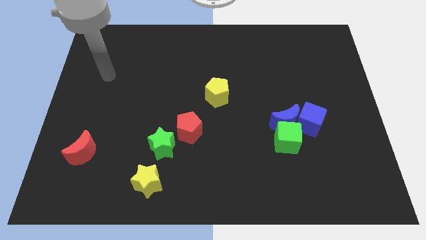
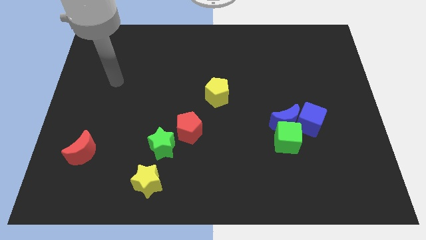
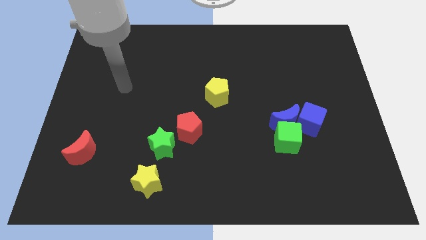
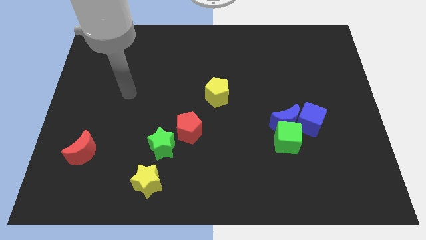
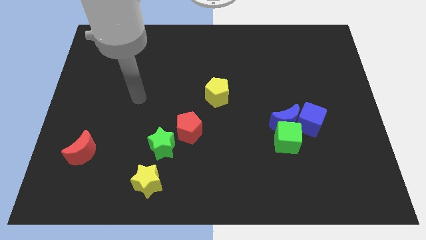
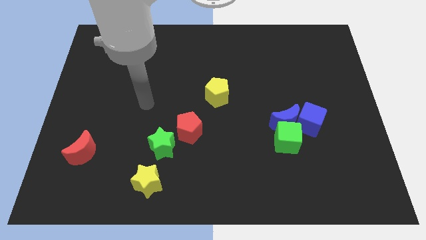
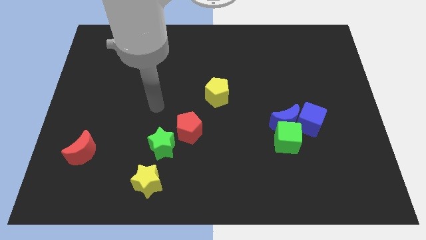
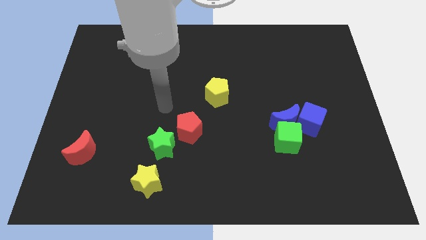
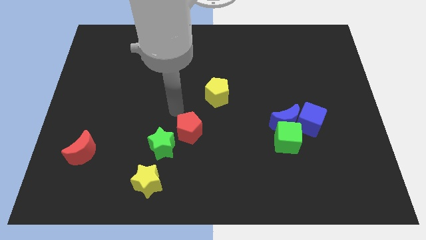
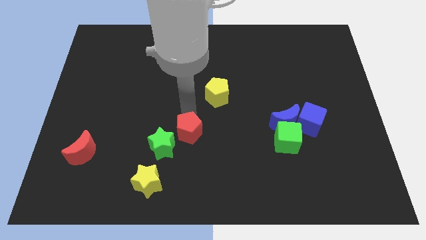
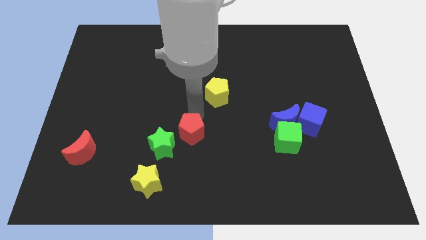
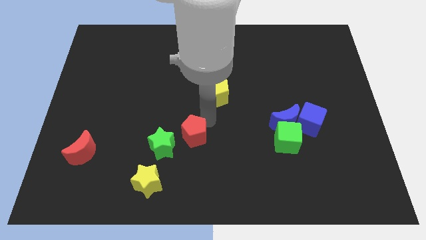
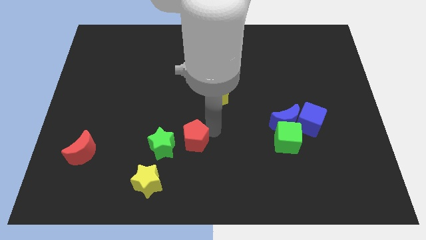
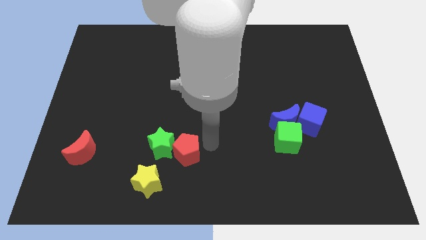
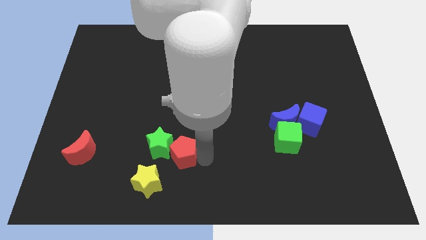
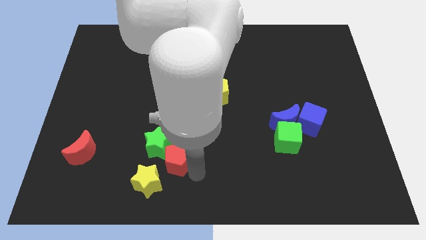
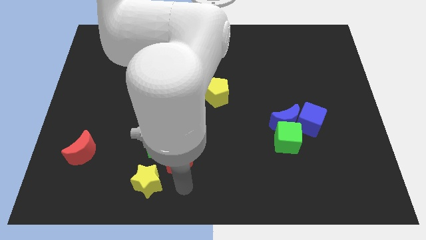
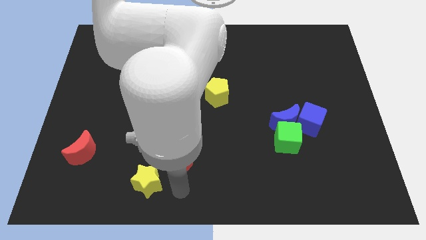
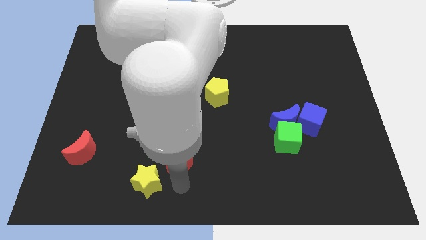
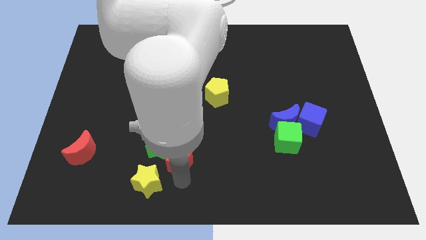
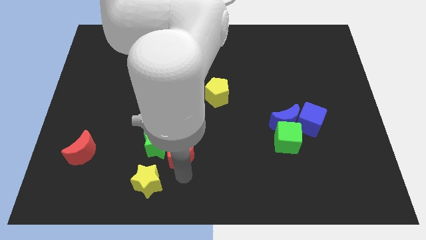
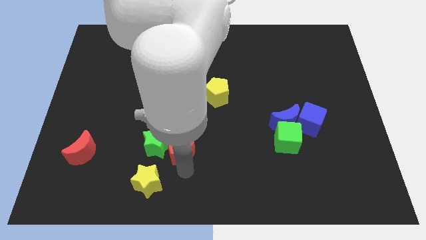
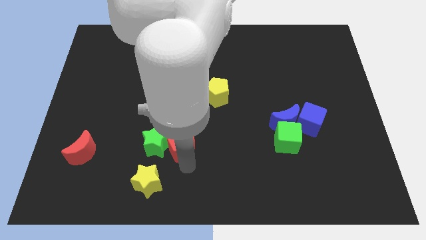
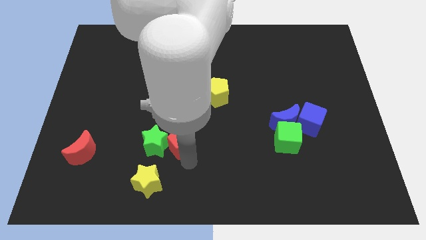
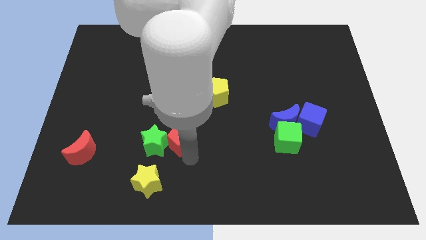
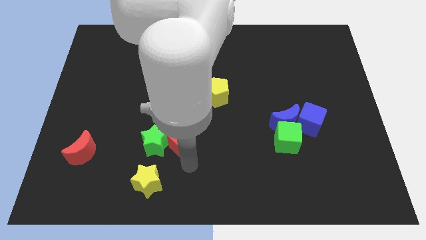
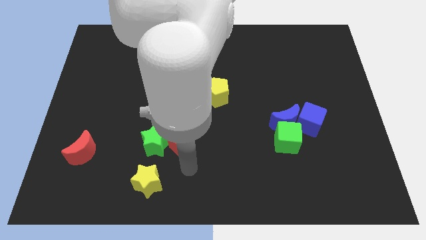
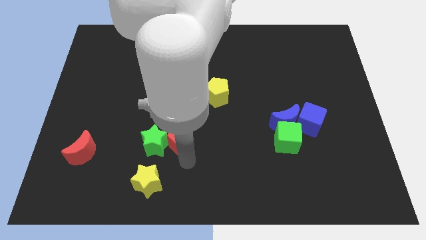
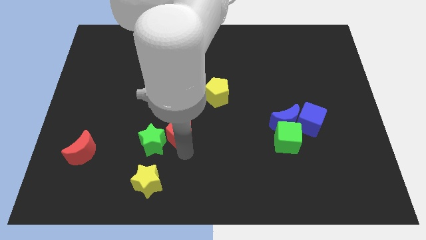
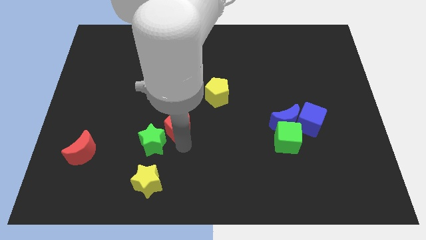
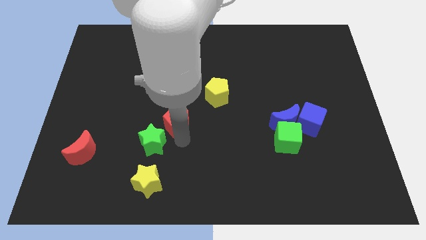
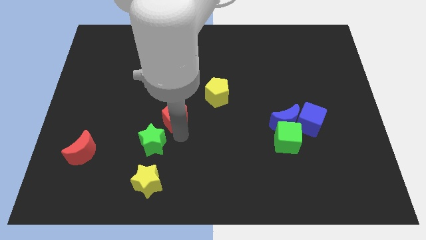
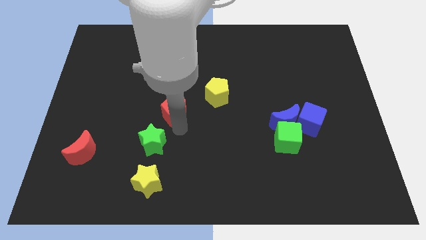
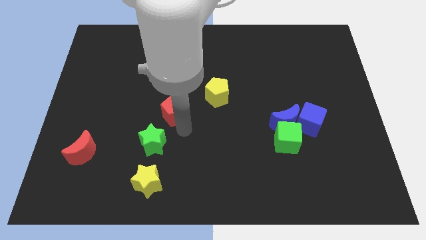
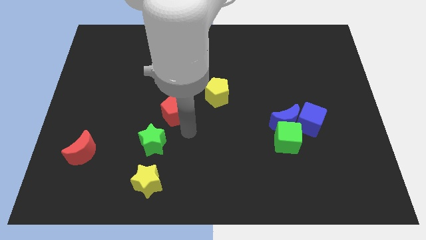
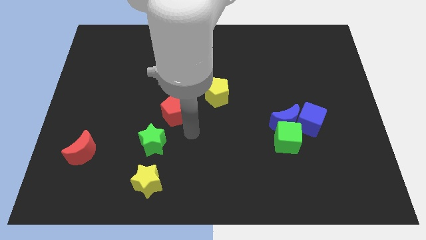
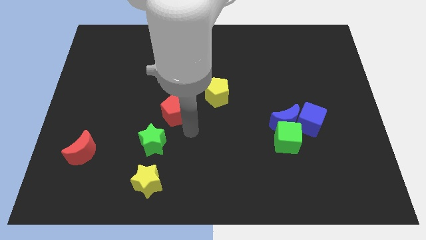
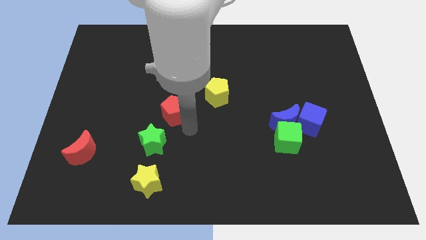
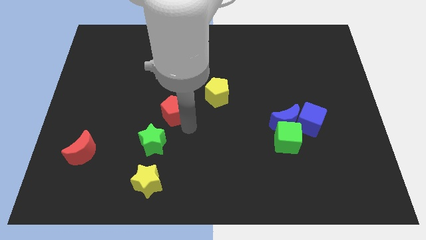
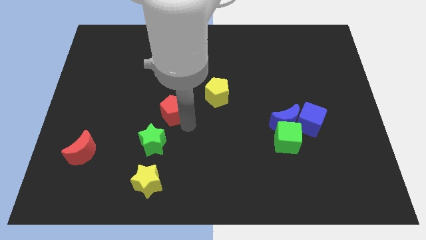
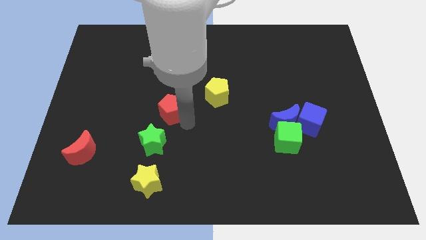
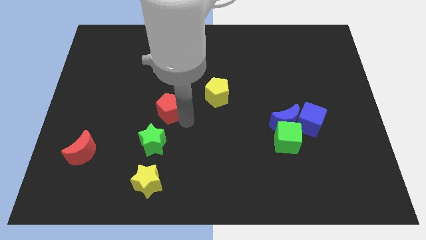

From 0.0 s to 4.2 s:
push the red pentagon a little diagonally up and to the left

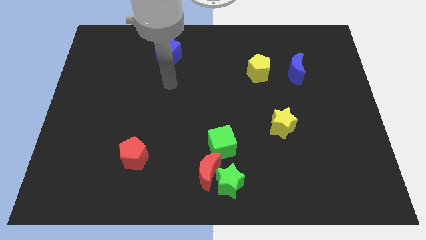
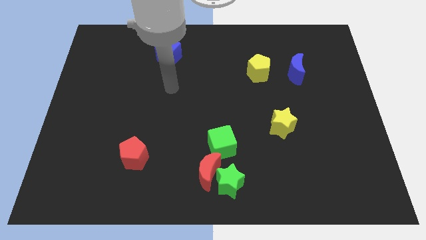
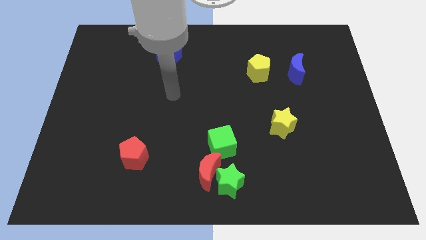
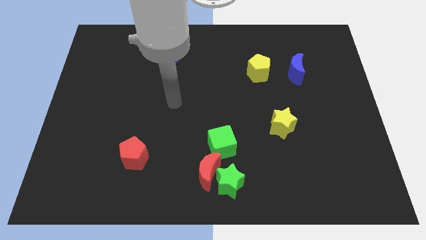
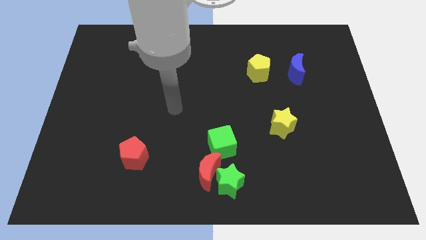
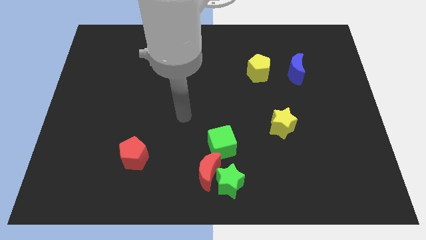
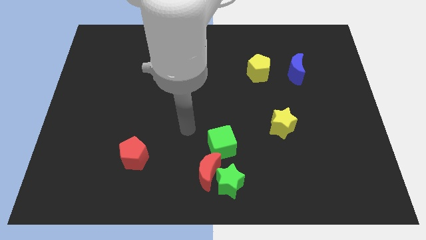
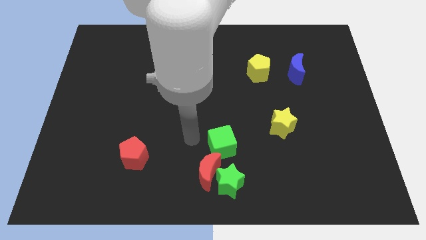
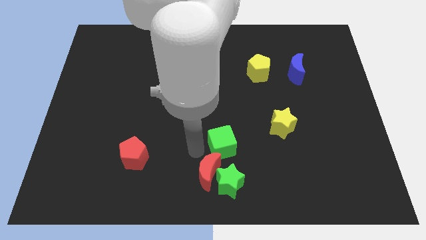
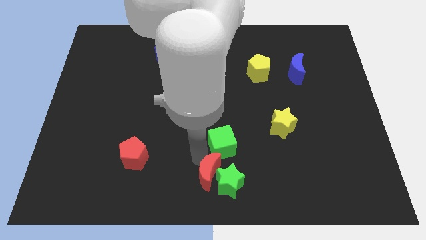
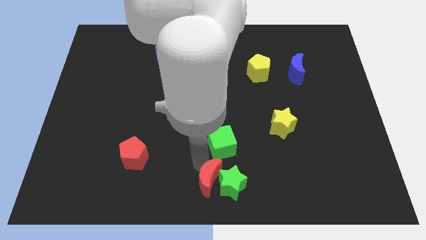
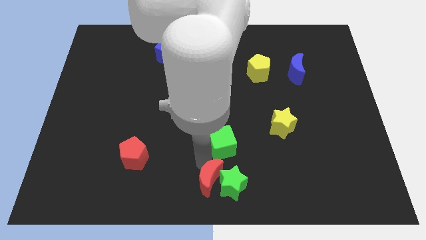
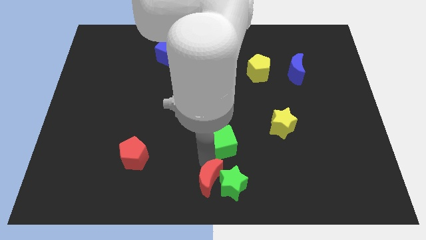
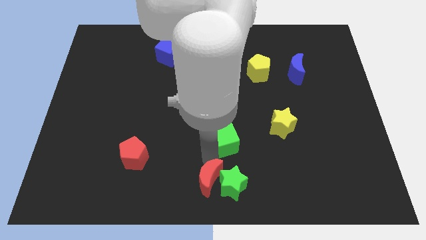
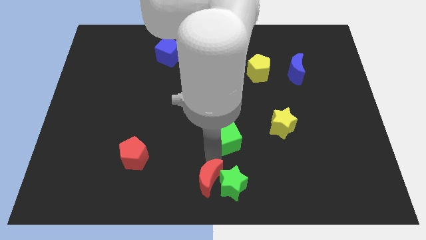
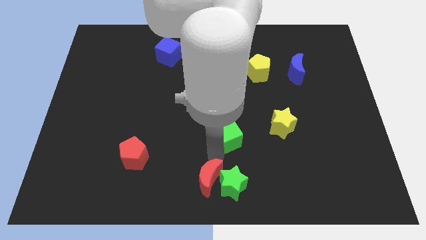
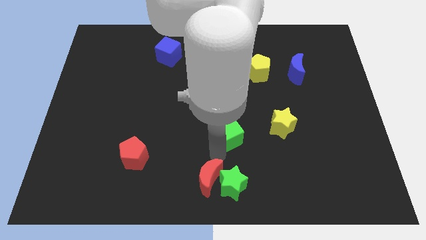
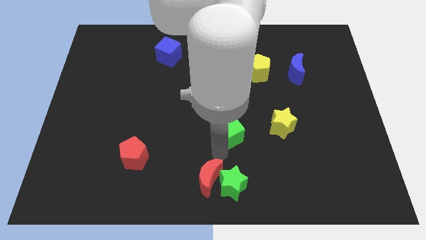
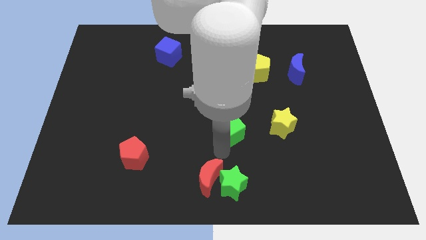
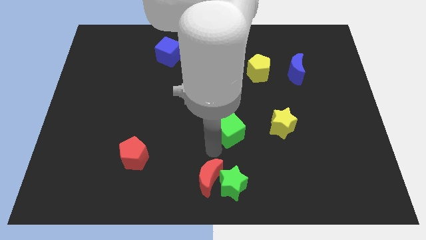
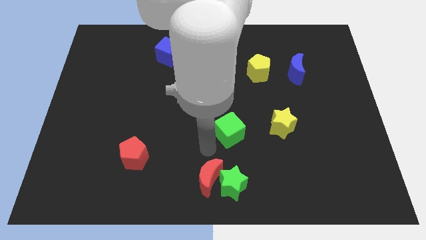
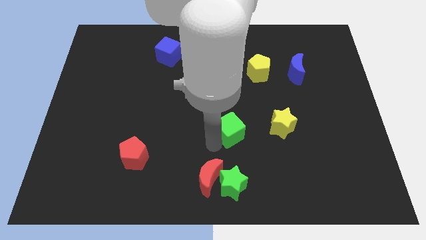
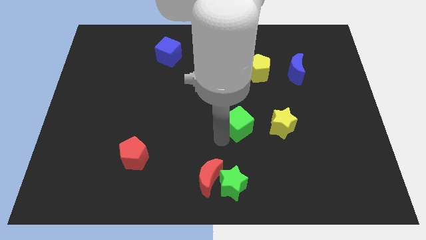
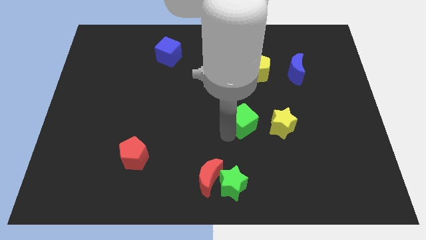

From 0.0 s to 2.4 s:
push the green cube slightly diagonally up and to the right

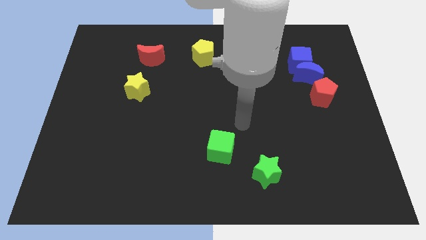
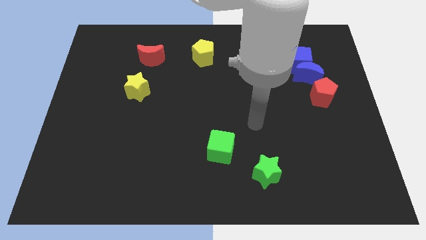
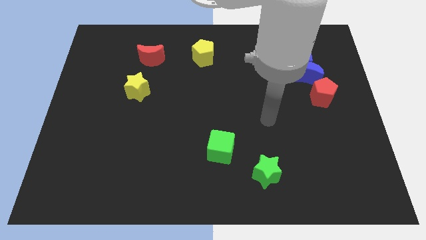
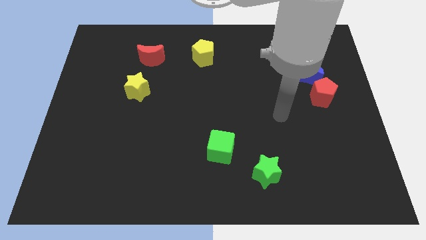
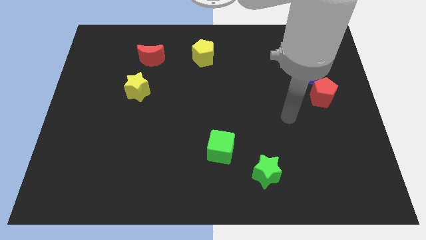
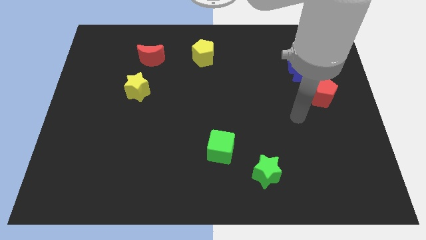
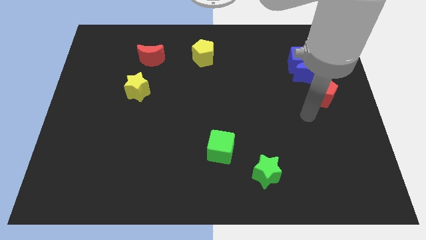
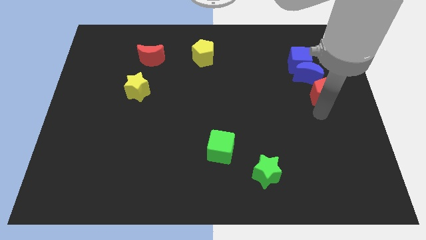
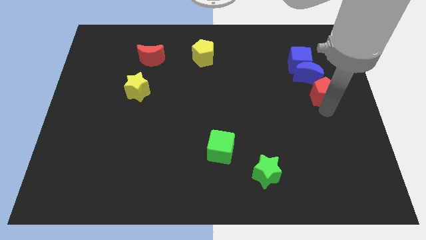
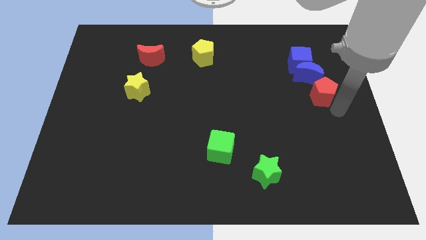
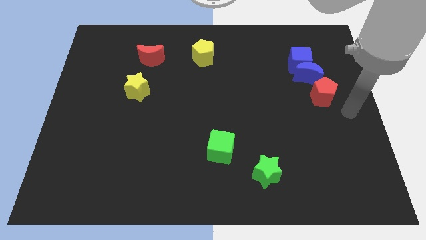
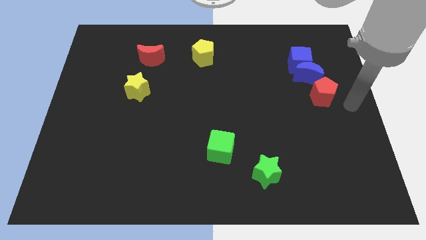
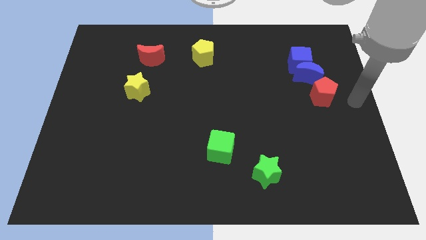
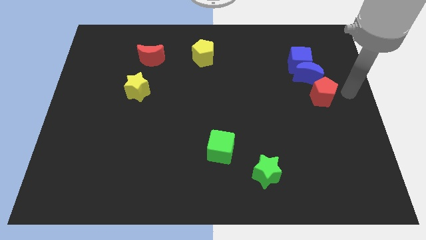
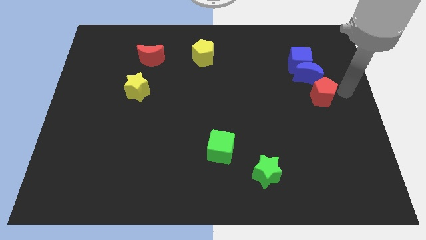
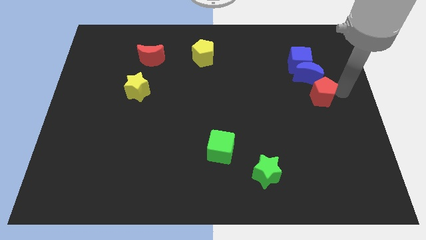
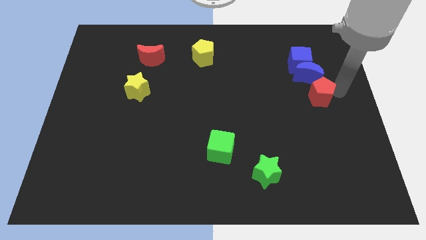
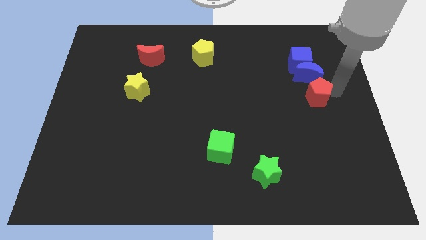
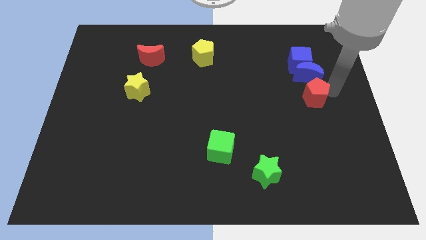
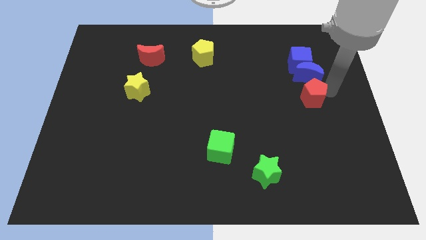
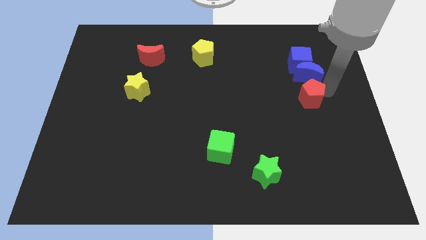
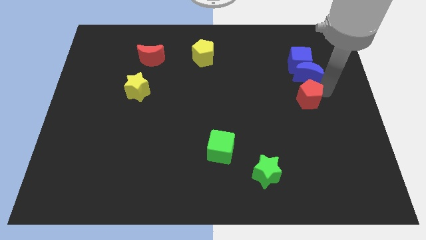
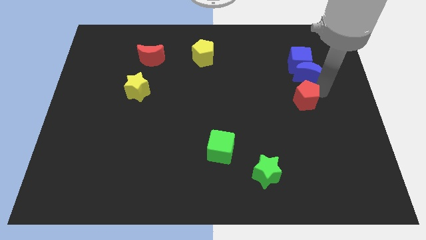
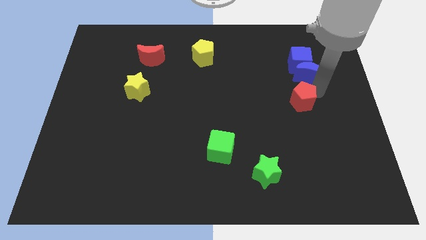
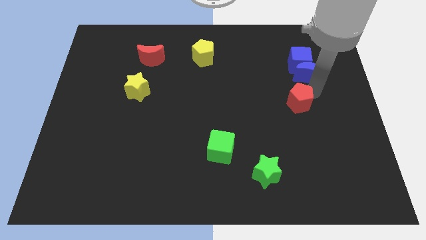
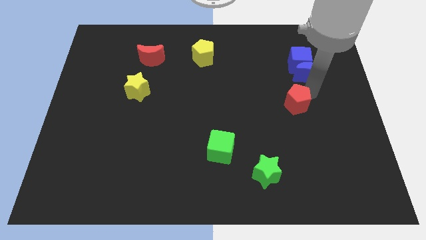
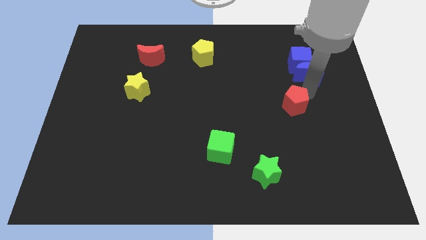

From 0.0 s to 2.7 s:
slide the red pentagon to the left slightly
